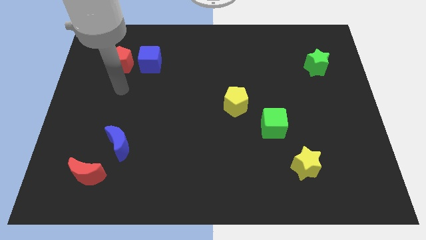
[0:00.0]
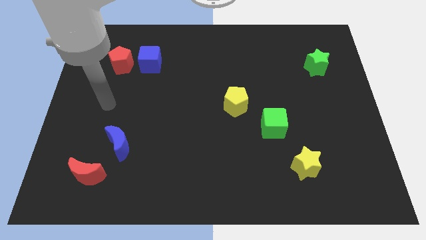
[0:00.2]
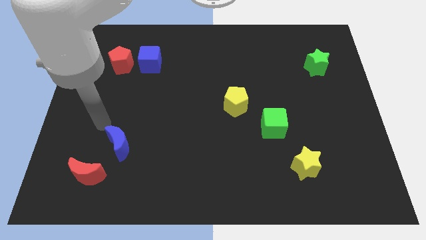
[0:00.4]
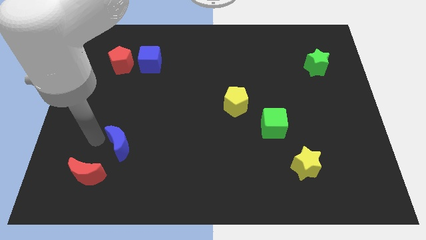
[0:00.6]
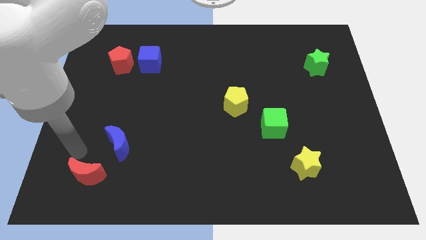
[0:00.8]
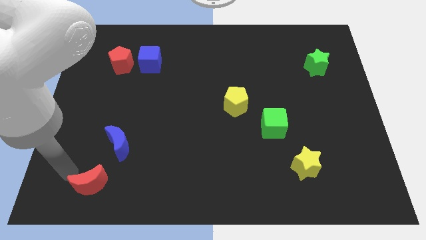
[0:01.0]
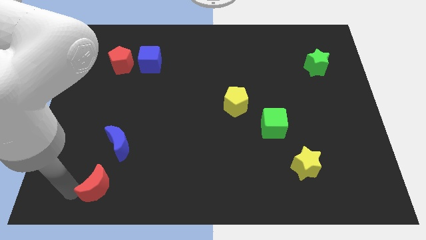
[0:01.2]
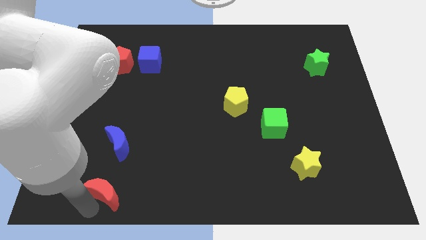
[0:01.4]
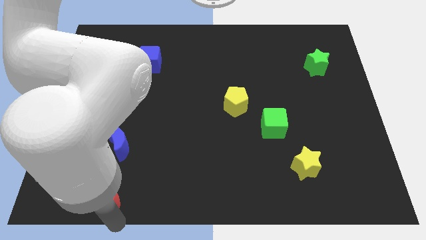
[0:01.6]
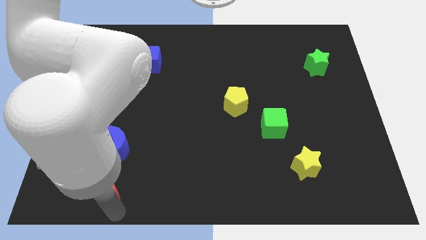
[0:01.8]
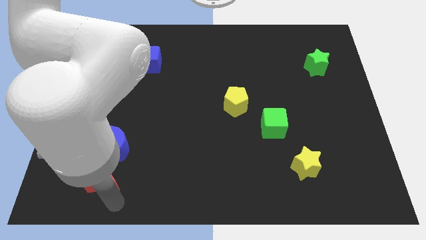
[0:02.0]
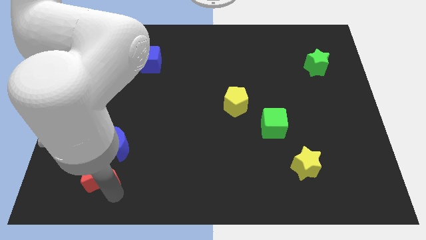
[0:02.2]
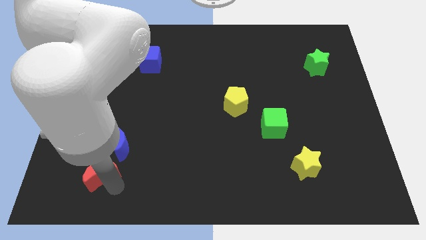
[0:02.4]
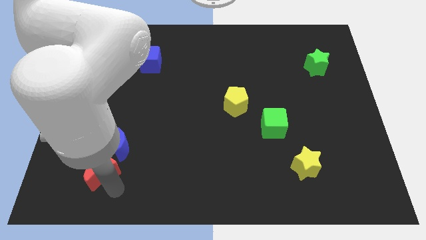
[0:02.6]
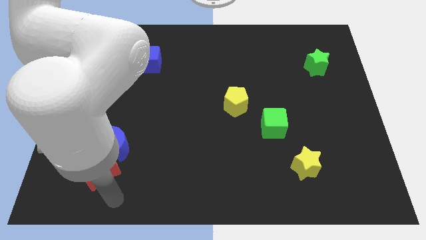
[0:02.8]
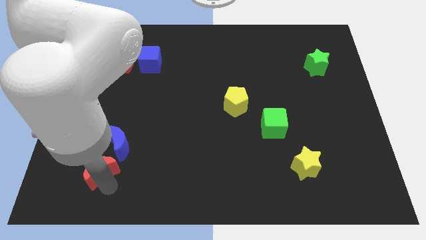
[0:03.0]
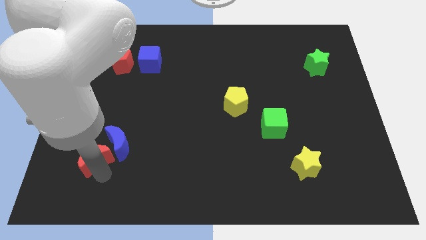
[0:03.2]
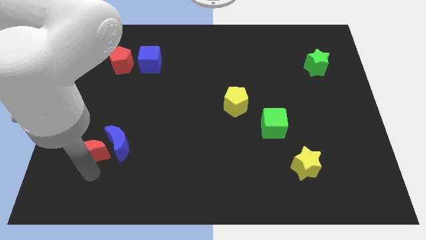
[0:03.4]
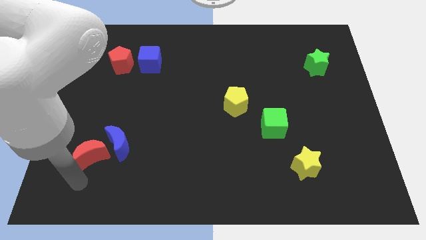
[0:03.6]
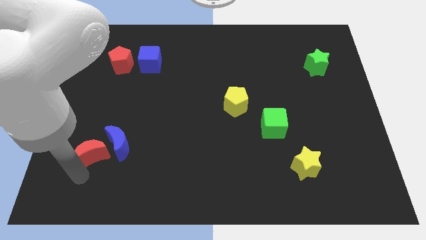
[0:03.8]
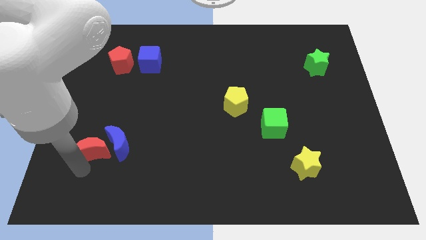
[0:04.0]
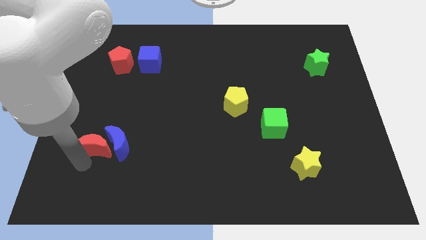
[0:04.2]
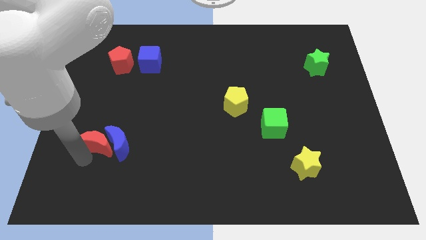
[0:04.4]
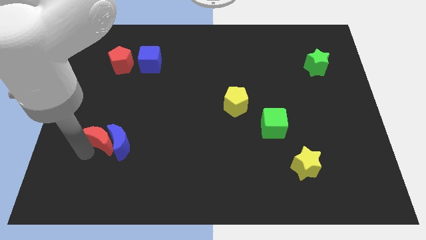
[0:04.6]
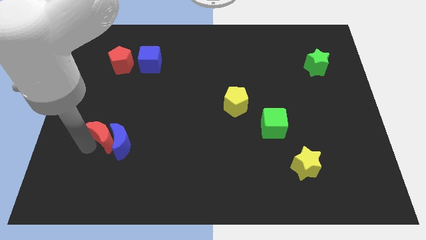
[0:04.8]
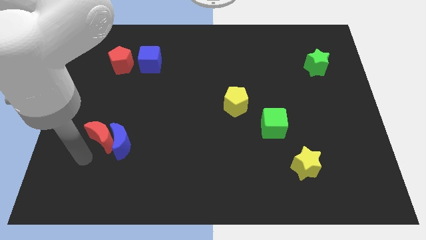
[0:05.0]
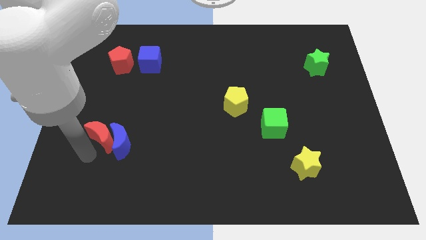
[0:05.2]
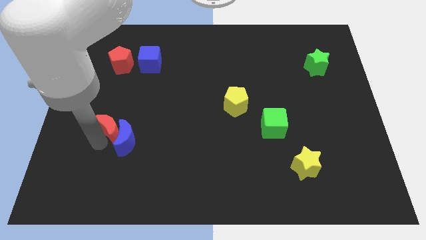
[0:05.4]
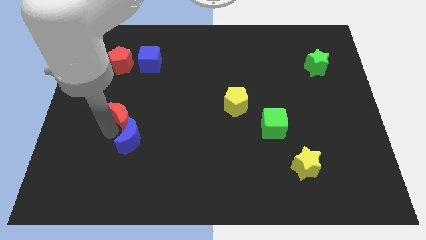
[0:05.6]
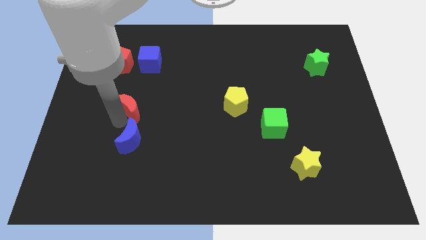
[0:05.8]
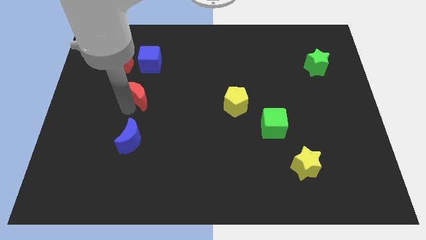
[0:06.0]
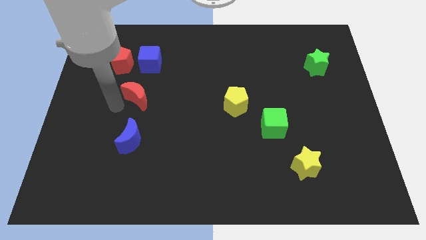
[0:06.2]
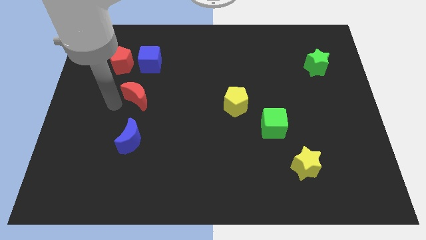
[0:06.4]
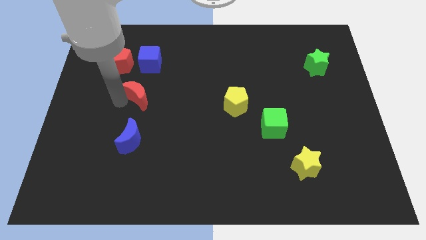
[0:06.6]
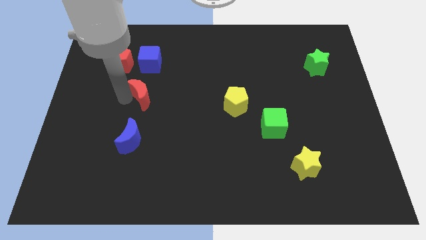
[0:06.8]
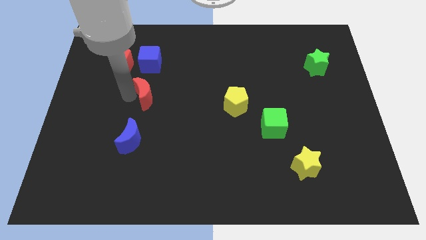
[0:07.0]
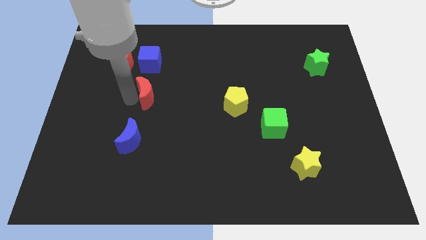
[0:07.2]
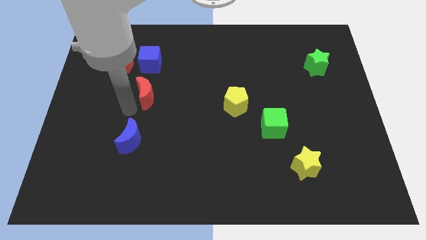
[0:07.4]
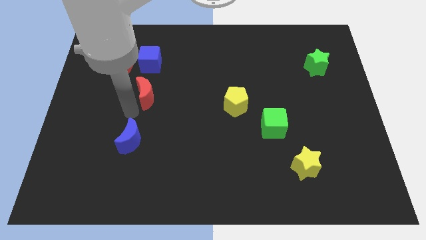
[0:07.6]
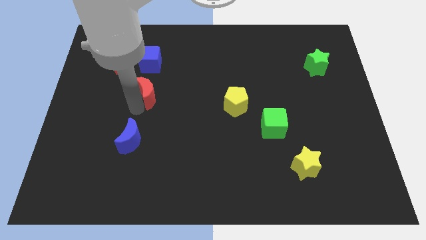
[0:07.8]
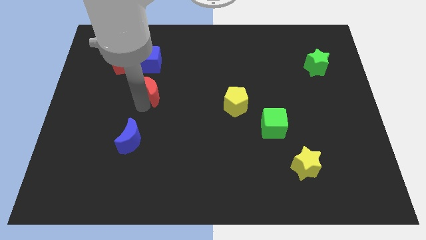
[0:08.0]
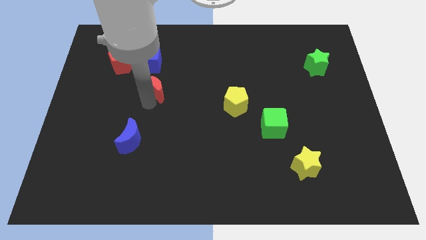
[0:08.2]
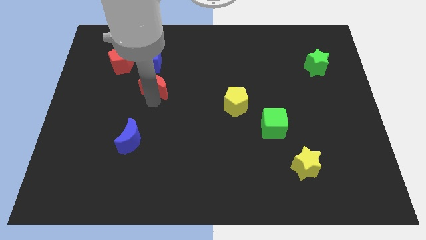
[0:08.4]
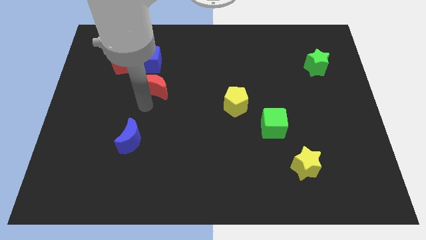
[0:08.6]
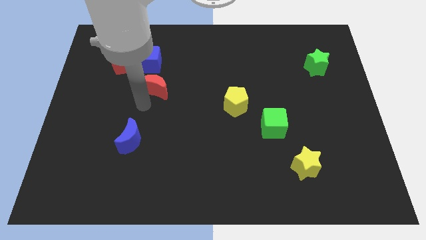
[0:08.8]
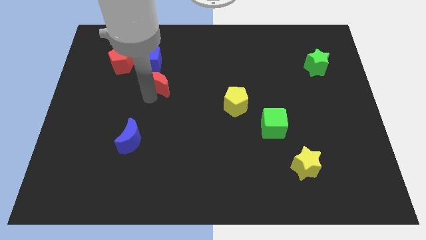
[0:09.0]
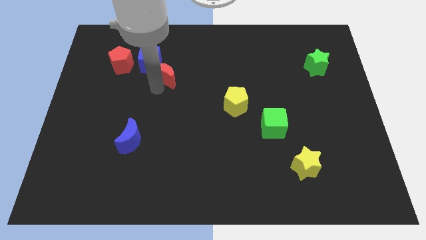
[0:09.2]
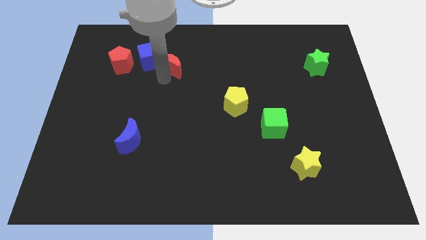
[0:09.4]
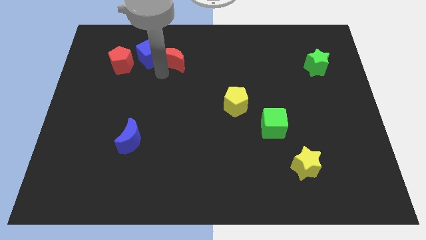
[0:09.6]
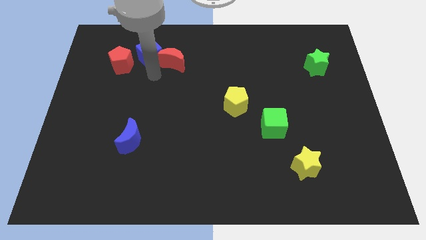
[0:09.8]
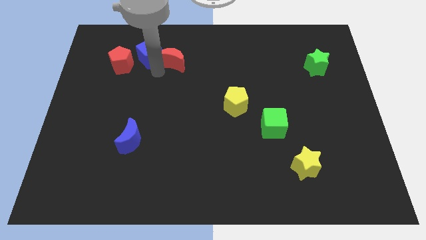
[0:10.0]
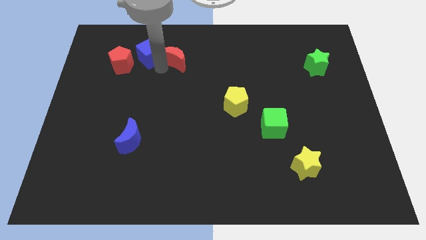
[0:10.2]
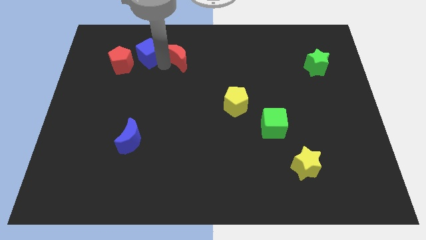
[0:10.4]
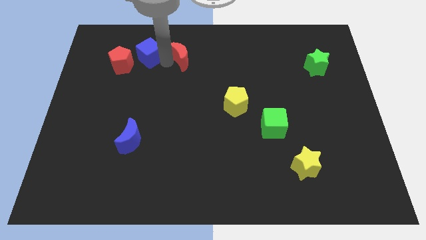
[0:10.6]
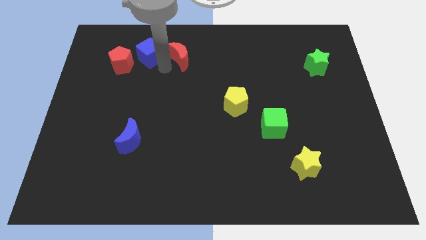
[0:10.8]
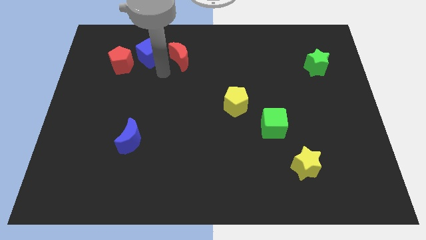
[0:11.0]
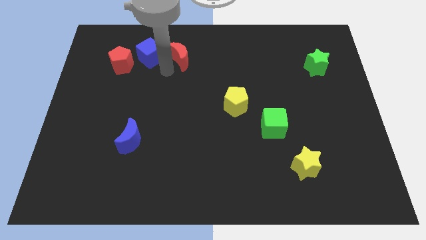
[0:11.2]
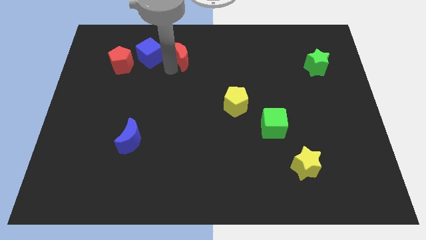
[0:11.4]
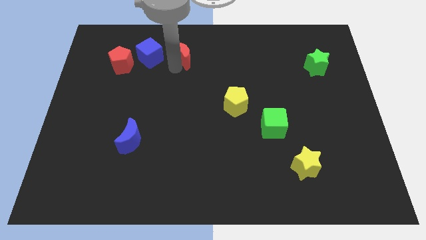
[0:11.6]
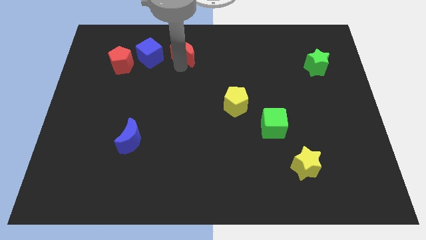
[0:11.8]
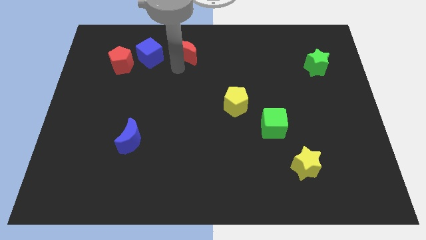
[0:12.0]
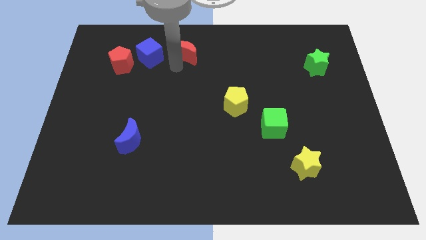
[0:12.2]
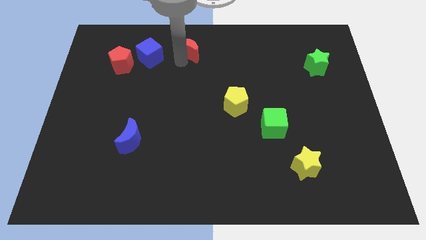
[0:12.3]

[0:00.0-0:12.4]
put the red moon to the towards your base
